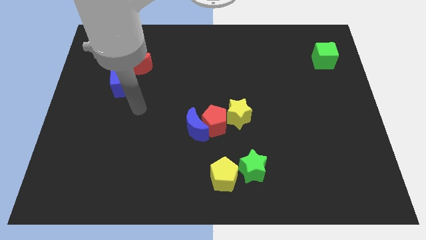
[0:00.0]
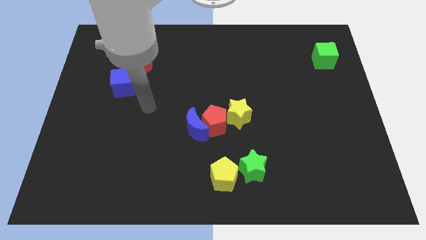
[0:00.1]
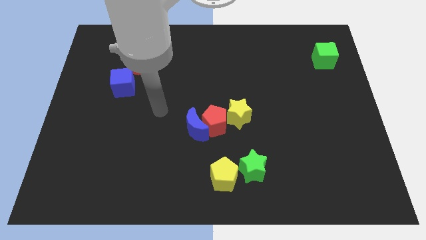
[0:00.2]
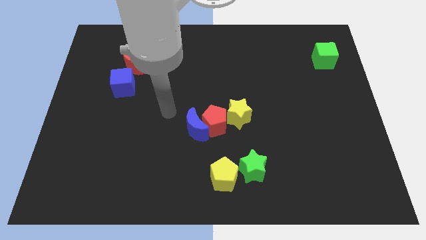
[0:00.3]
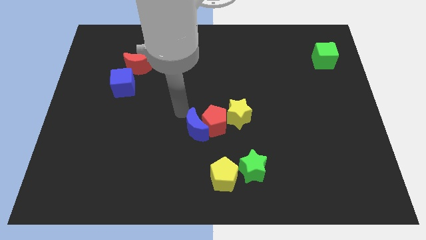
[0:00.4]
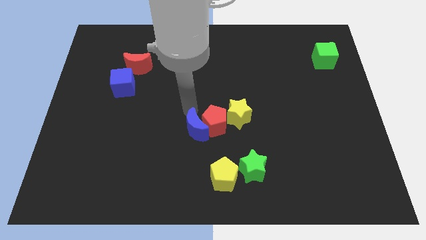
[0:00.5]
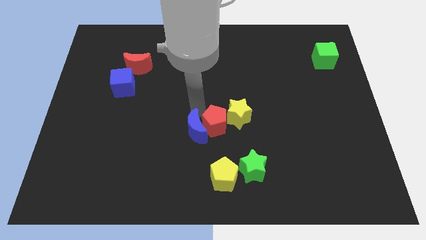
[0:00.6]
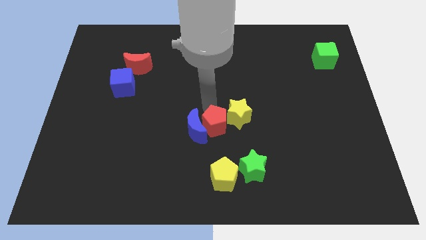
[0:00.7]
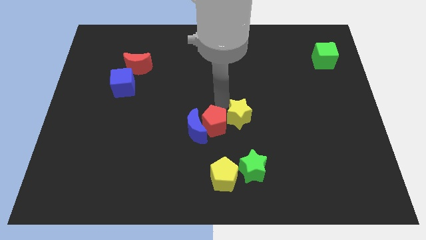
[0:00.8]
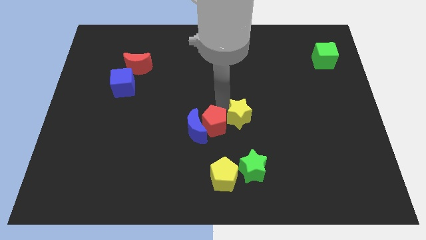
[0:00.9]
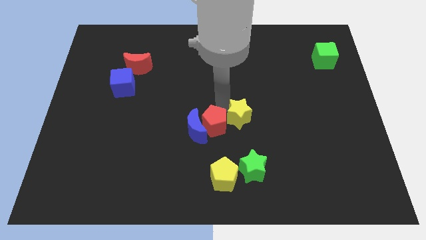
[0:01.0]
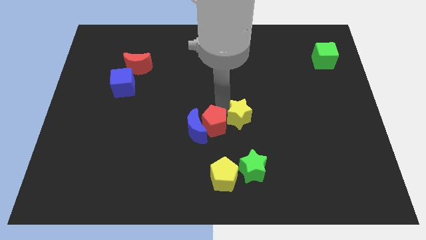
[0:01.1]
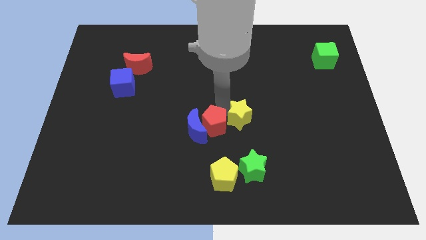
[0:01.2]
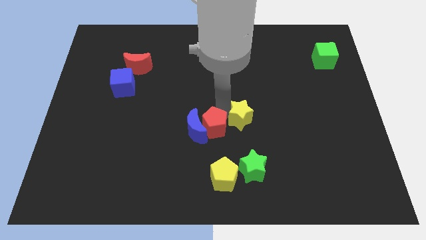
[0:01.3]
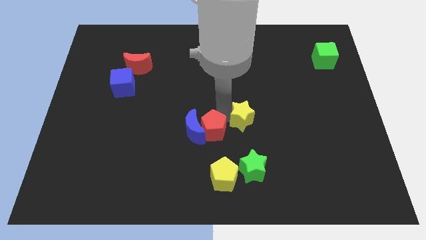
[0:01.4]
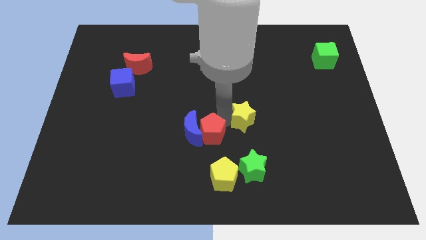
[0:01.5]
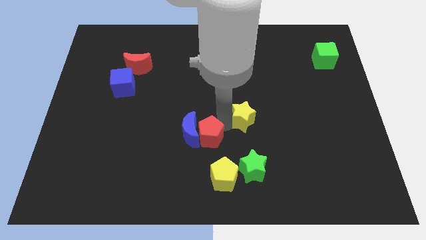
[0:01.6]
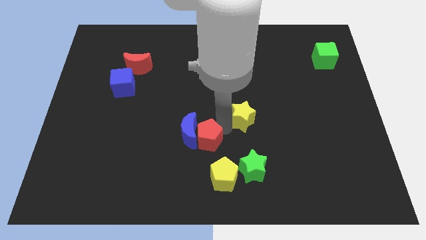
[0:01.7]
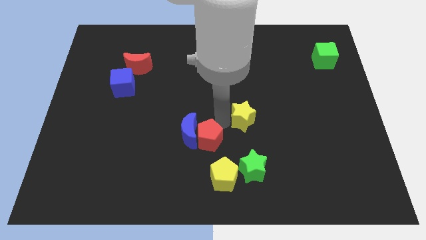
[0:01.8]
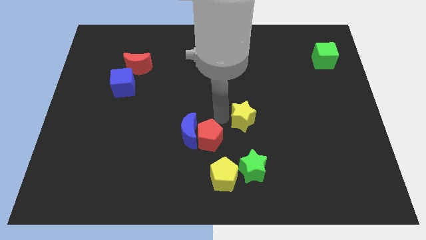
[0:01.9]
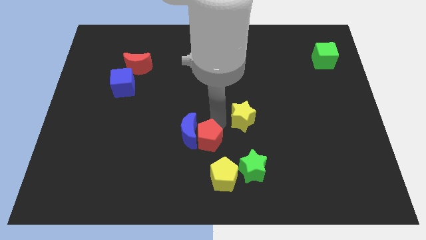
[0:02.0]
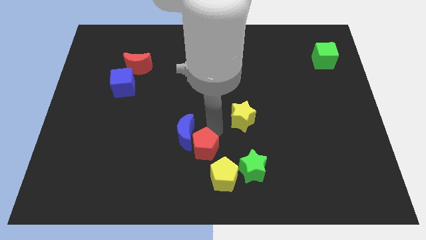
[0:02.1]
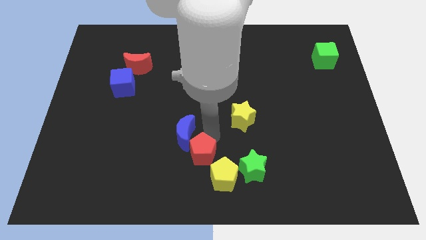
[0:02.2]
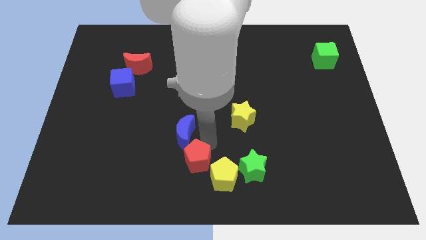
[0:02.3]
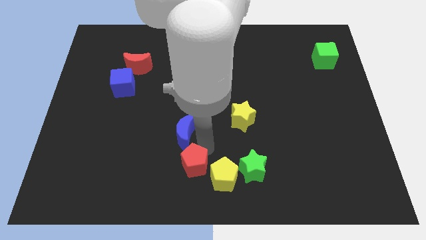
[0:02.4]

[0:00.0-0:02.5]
pull the red pentagon apart from the blue moon and yellow star

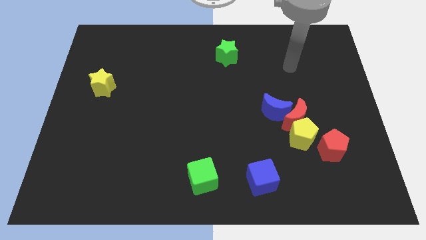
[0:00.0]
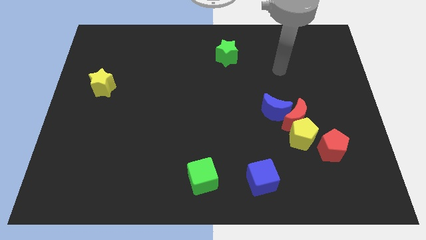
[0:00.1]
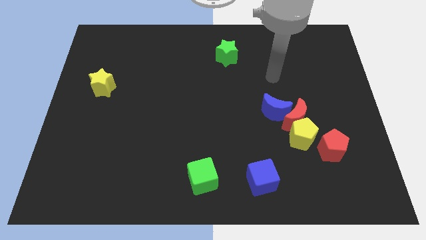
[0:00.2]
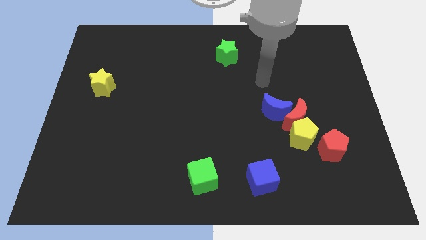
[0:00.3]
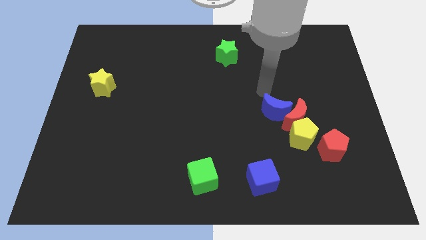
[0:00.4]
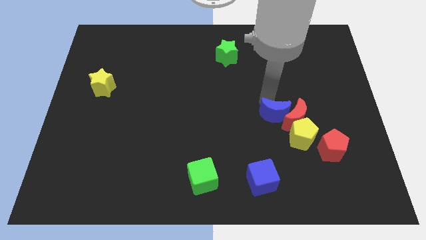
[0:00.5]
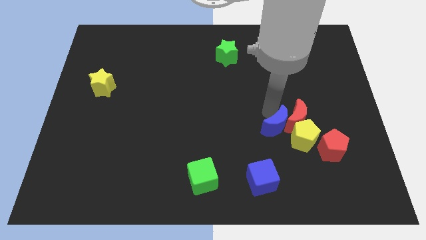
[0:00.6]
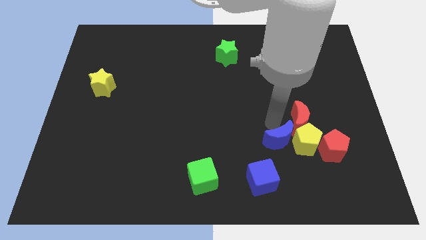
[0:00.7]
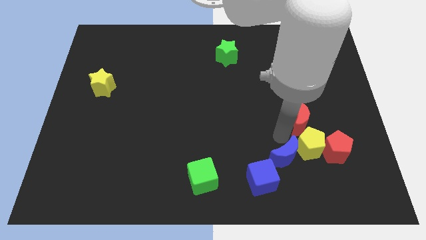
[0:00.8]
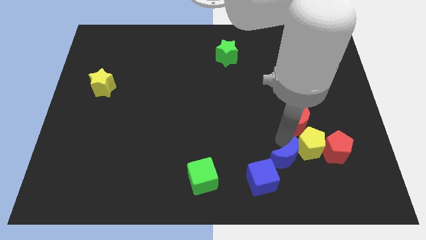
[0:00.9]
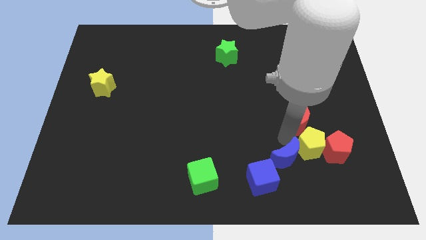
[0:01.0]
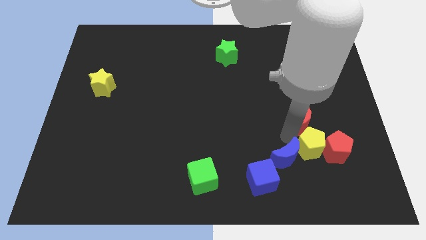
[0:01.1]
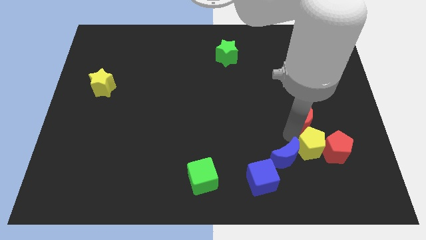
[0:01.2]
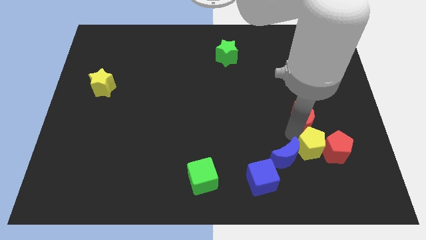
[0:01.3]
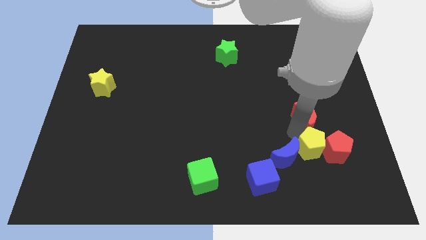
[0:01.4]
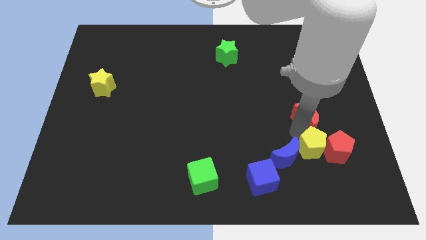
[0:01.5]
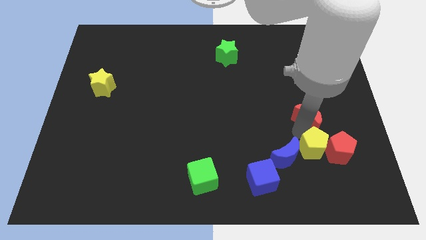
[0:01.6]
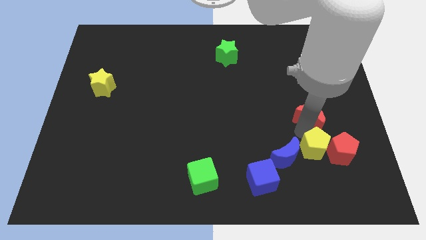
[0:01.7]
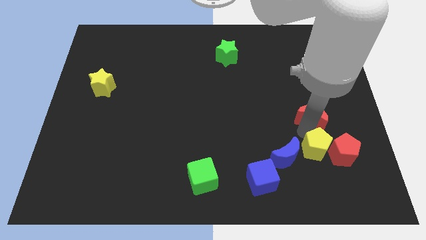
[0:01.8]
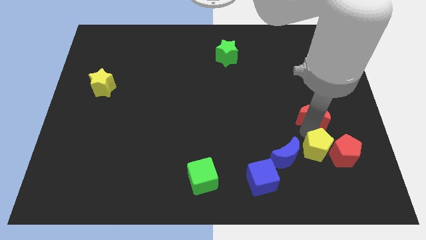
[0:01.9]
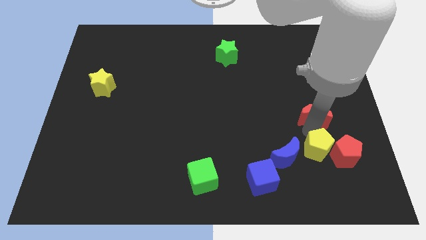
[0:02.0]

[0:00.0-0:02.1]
pull the red moon apart from the yellow pentagon and blue moon

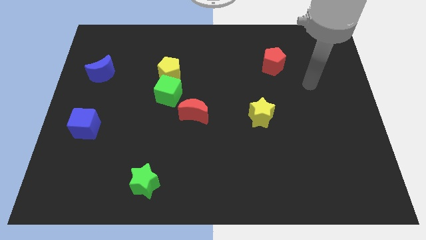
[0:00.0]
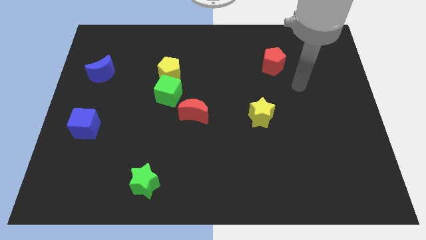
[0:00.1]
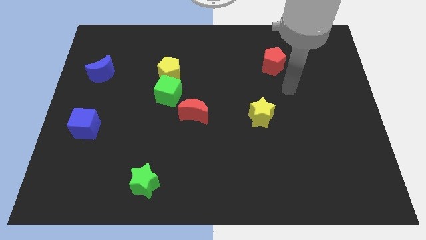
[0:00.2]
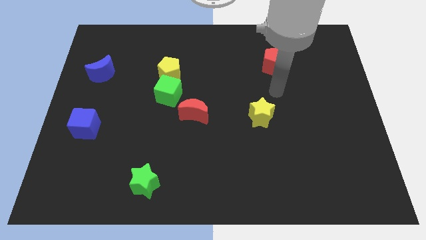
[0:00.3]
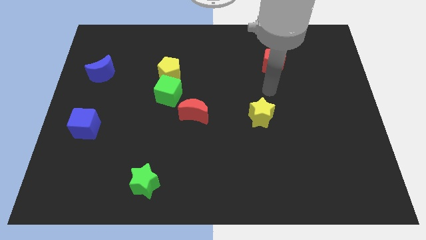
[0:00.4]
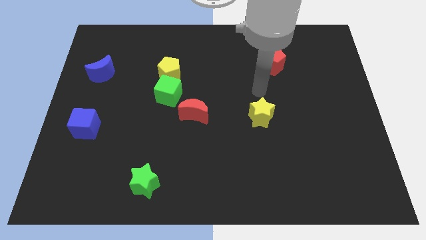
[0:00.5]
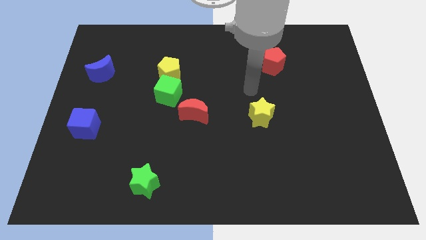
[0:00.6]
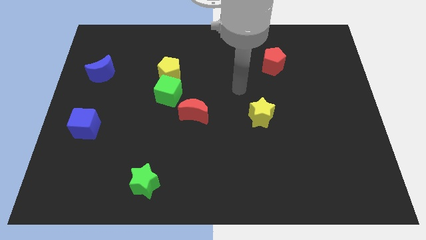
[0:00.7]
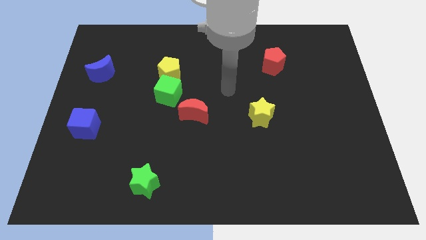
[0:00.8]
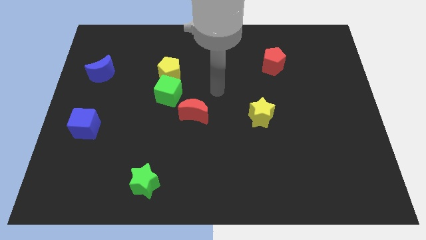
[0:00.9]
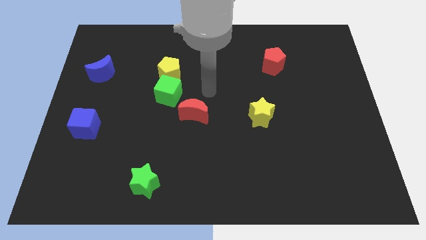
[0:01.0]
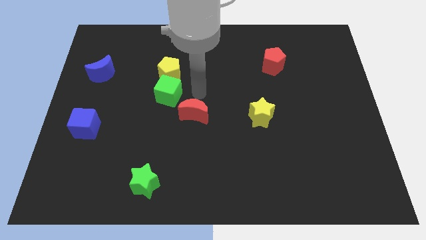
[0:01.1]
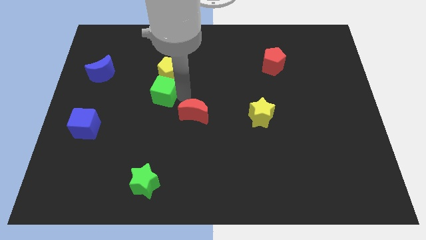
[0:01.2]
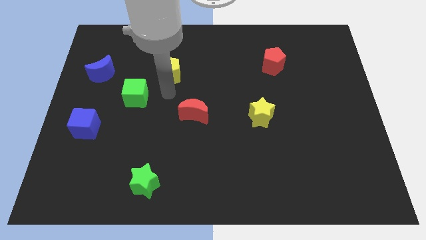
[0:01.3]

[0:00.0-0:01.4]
separate the yellow pentagon from the green cube

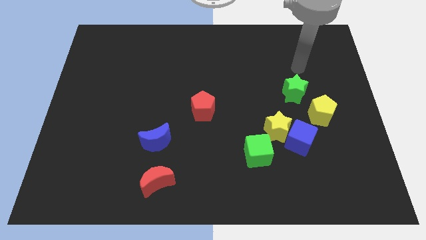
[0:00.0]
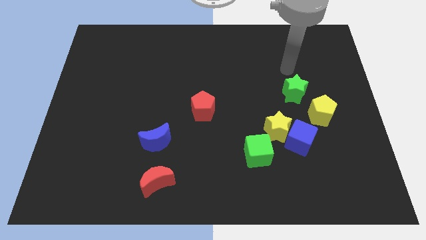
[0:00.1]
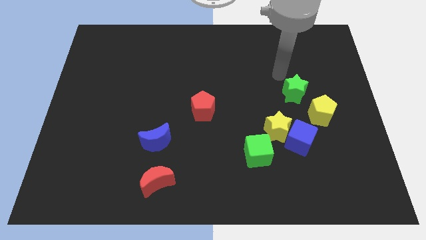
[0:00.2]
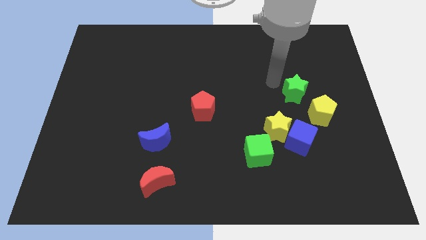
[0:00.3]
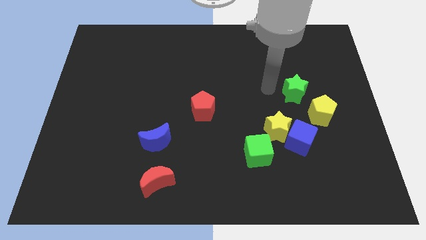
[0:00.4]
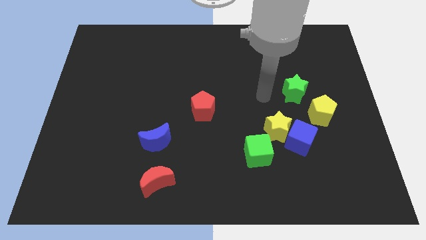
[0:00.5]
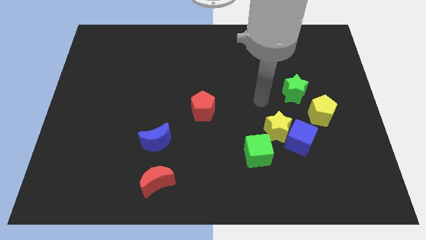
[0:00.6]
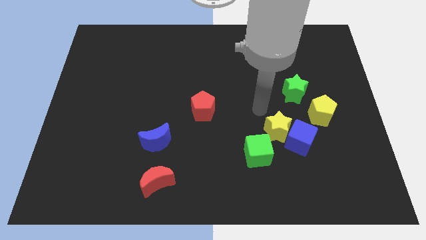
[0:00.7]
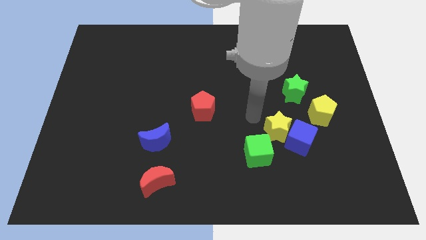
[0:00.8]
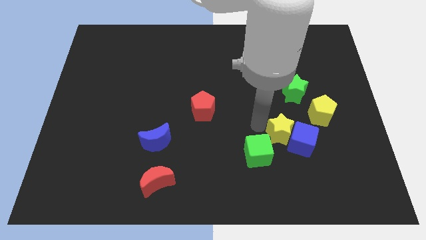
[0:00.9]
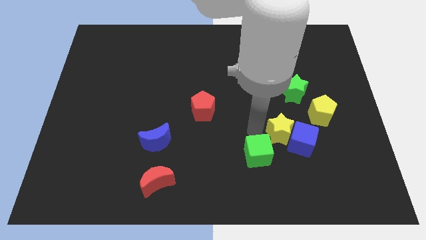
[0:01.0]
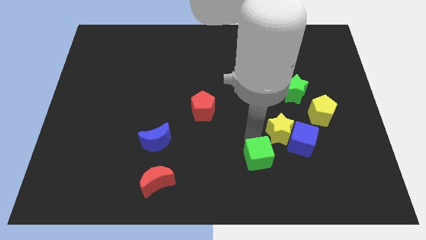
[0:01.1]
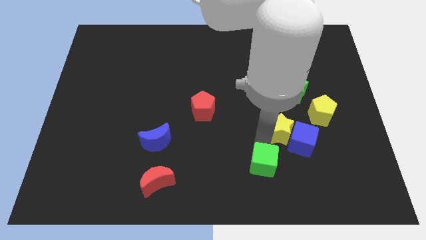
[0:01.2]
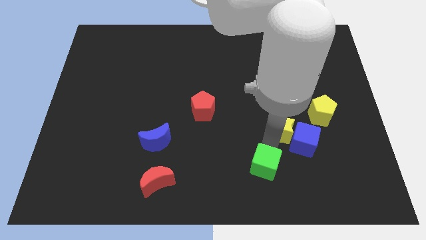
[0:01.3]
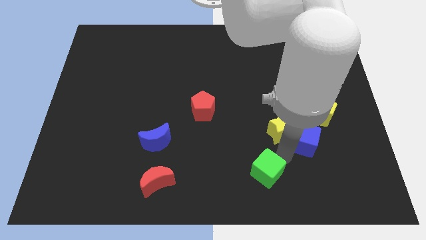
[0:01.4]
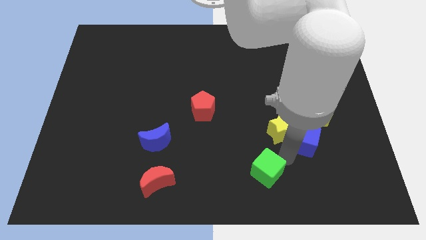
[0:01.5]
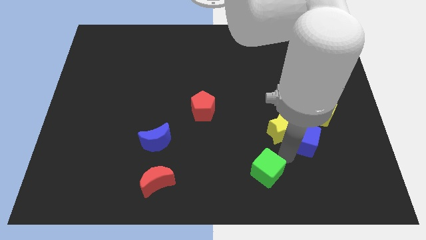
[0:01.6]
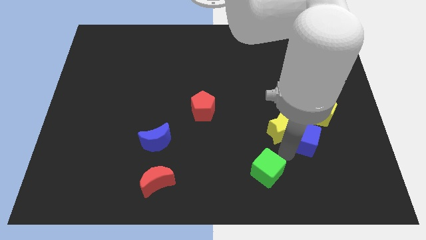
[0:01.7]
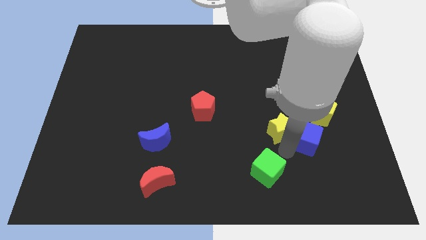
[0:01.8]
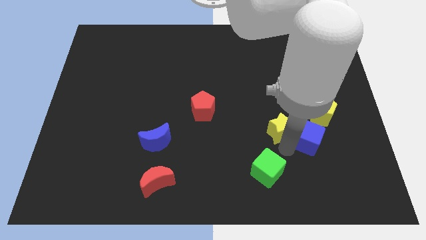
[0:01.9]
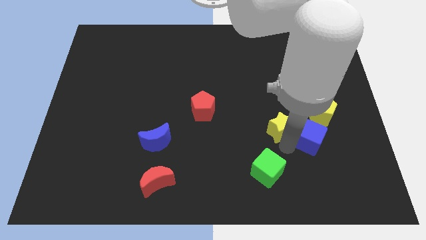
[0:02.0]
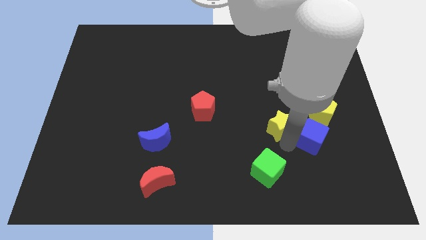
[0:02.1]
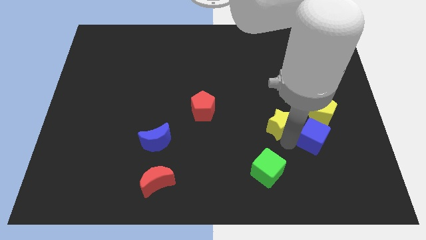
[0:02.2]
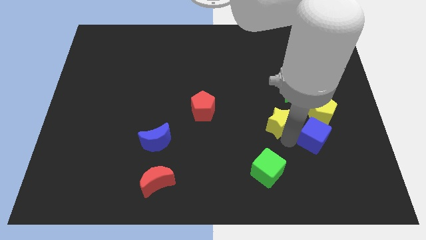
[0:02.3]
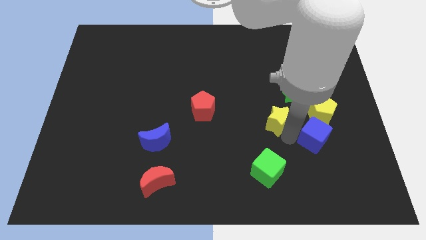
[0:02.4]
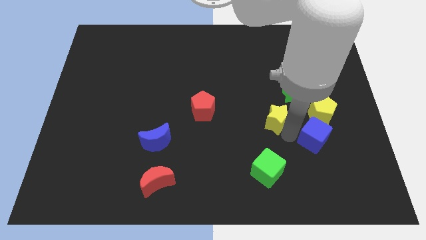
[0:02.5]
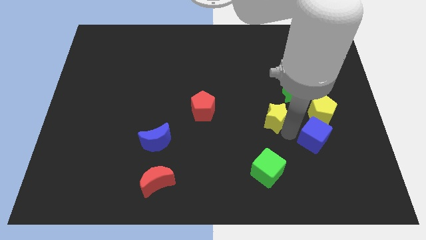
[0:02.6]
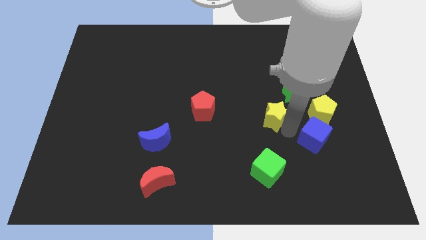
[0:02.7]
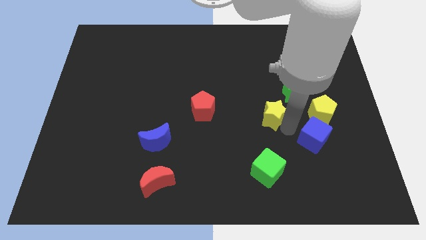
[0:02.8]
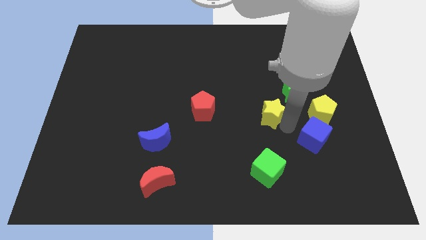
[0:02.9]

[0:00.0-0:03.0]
move the yellow star away from the blue cube and green cube

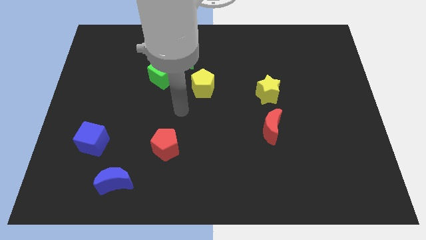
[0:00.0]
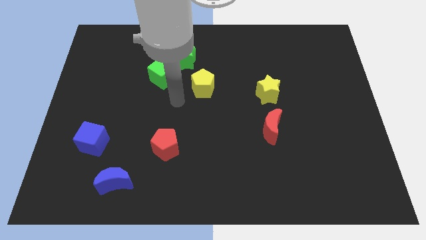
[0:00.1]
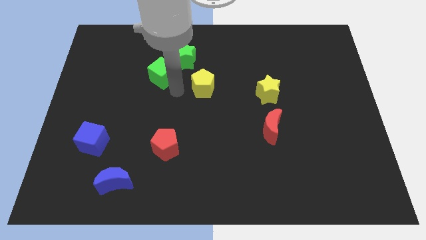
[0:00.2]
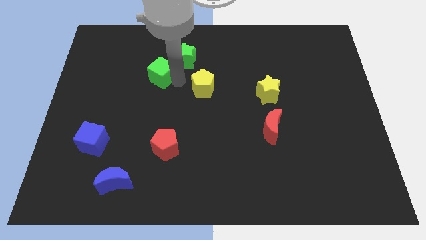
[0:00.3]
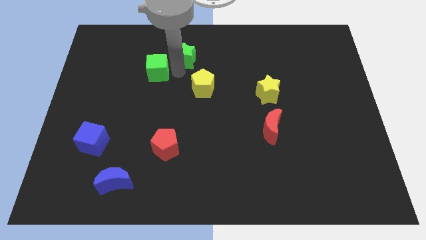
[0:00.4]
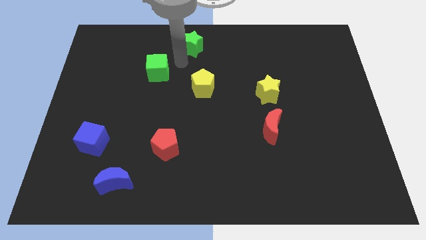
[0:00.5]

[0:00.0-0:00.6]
move the green cube away from the green star
